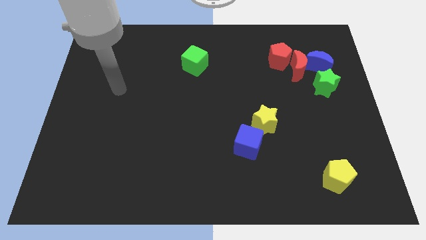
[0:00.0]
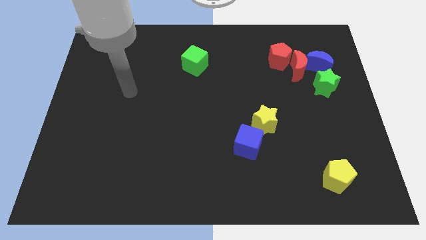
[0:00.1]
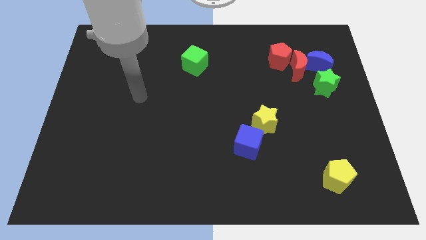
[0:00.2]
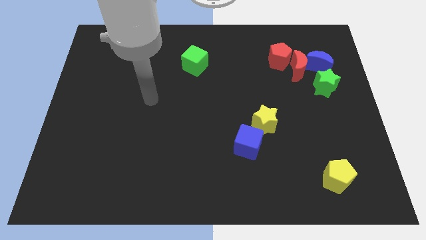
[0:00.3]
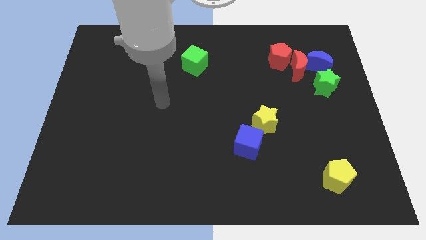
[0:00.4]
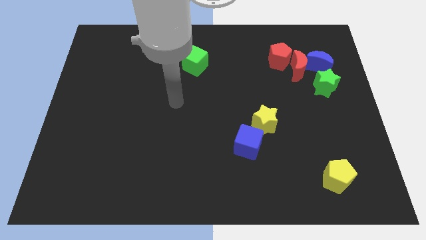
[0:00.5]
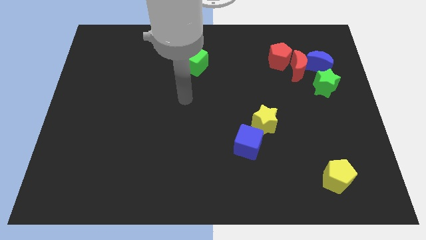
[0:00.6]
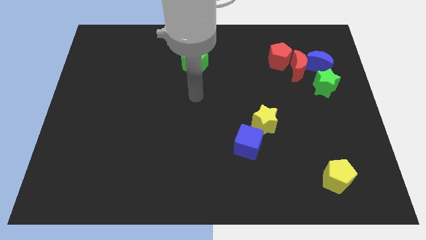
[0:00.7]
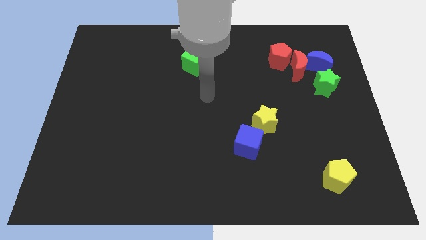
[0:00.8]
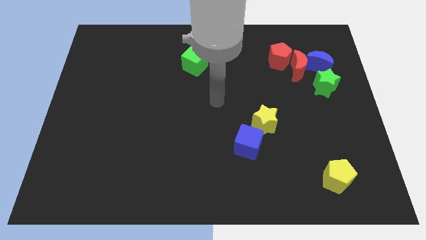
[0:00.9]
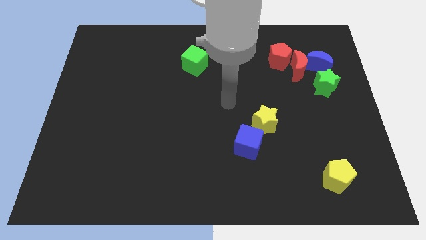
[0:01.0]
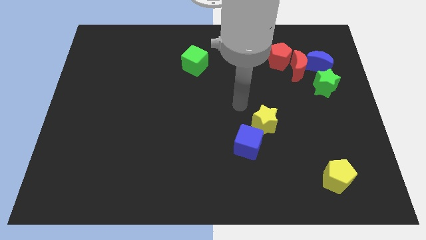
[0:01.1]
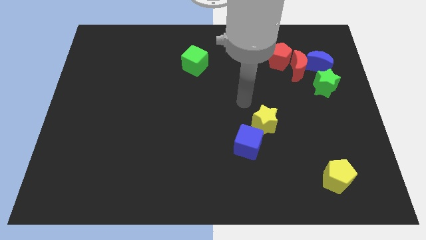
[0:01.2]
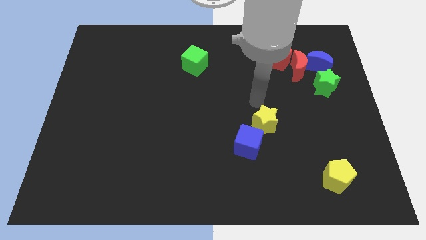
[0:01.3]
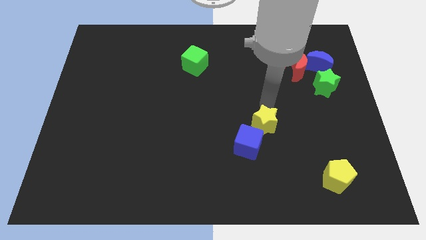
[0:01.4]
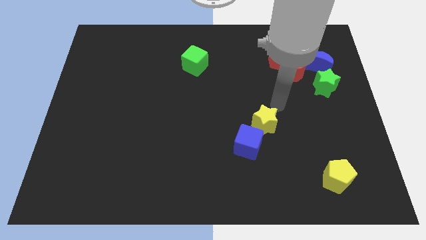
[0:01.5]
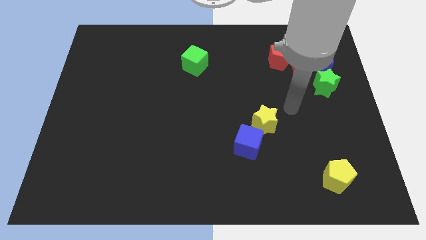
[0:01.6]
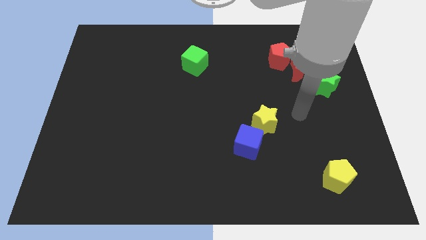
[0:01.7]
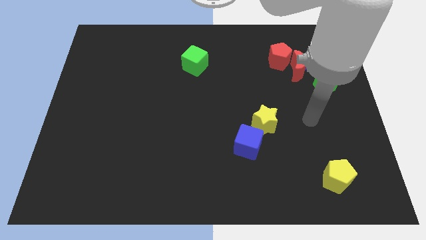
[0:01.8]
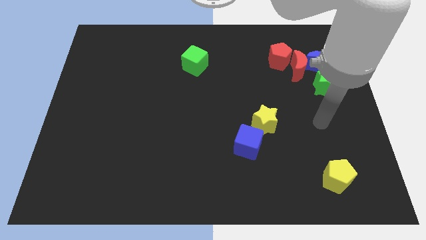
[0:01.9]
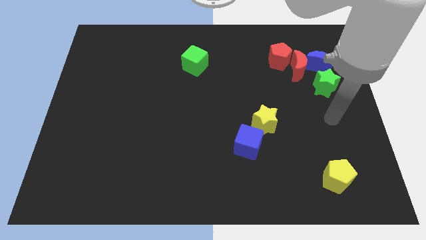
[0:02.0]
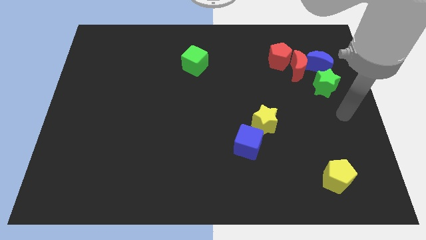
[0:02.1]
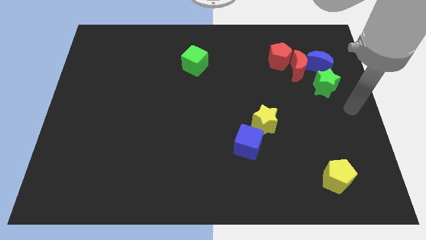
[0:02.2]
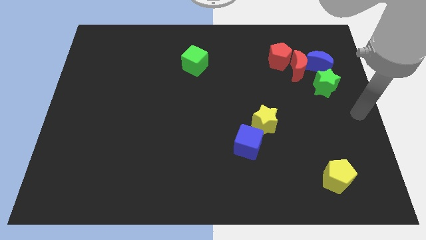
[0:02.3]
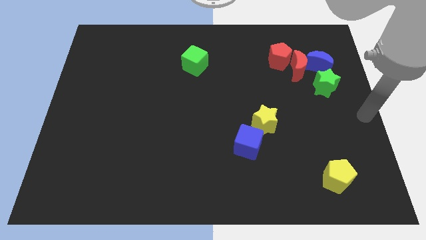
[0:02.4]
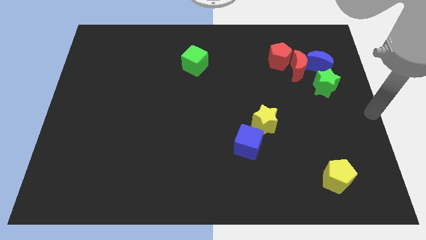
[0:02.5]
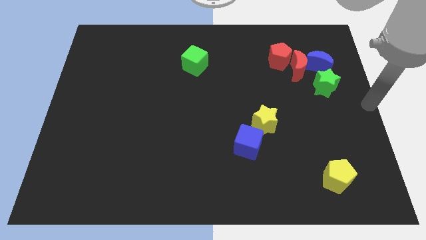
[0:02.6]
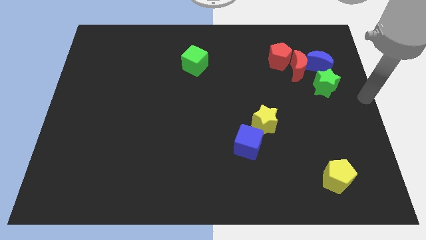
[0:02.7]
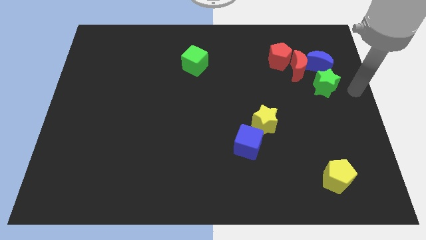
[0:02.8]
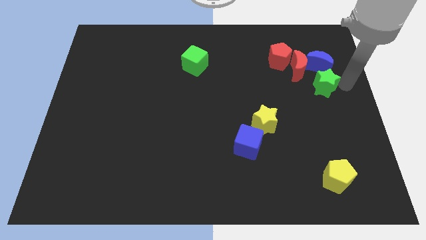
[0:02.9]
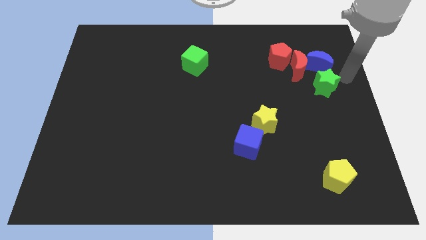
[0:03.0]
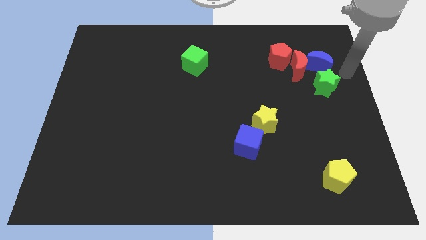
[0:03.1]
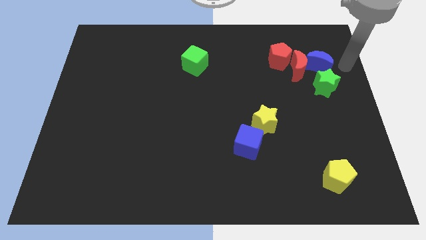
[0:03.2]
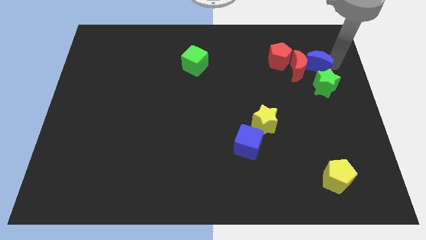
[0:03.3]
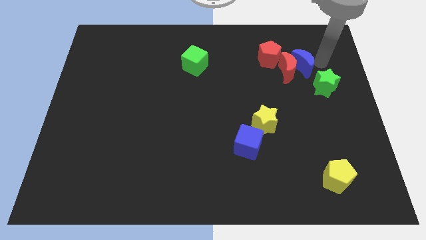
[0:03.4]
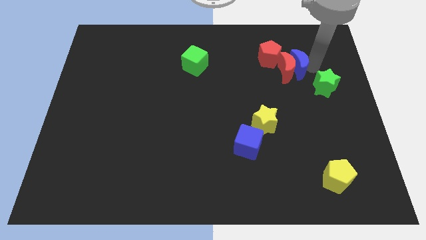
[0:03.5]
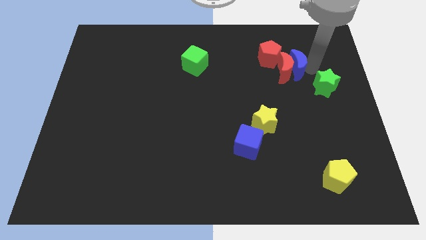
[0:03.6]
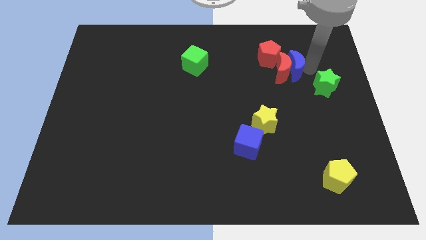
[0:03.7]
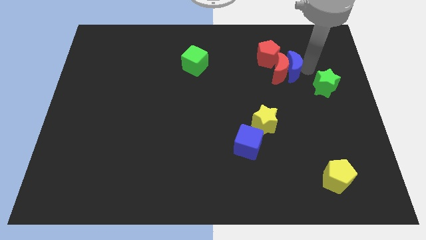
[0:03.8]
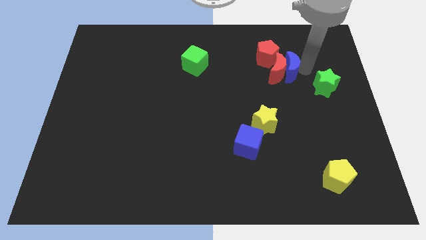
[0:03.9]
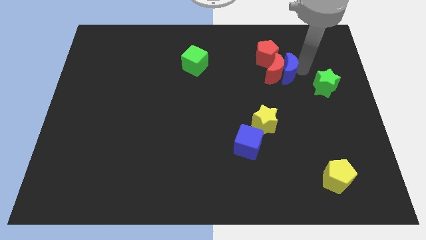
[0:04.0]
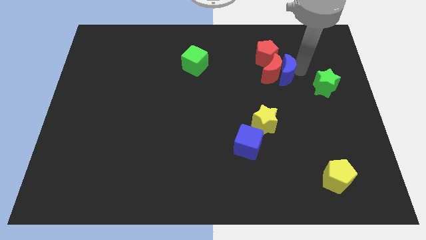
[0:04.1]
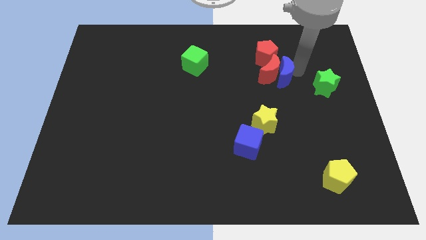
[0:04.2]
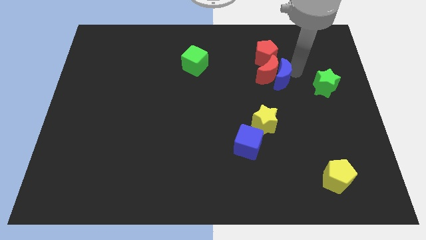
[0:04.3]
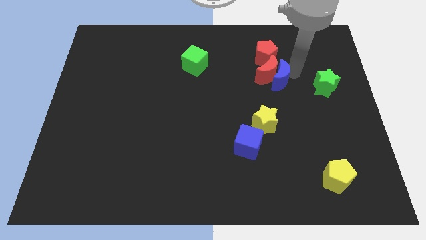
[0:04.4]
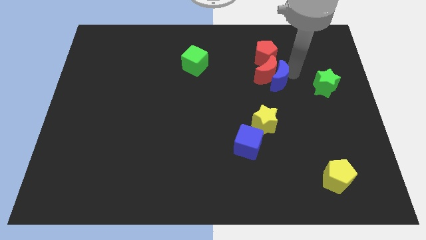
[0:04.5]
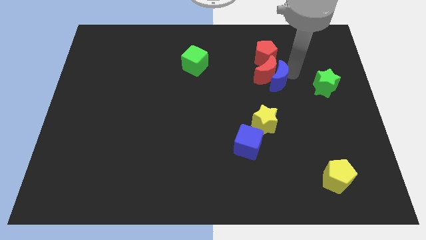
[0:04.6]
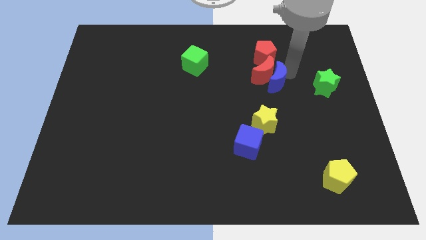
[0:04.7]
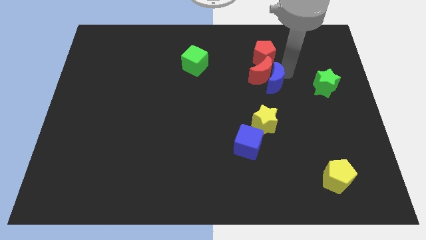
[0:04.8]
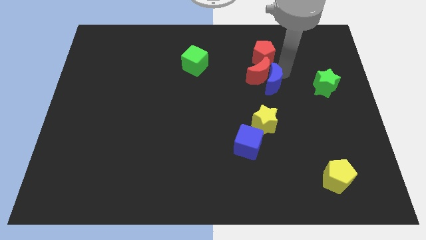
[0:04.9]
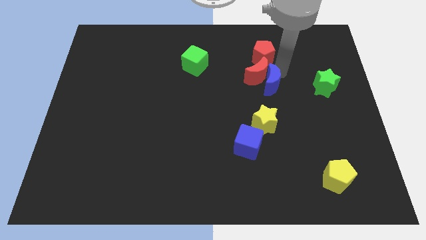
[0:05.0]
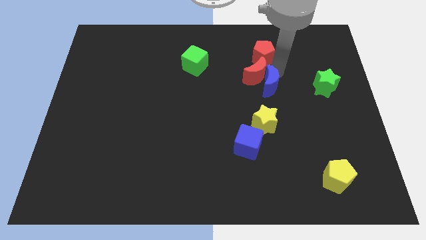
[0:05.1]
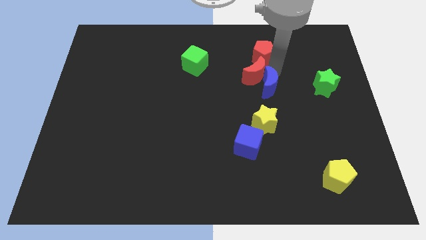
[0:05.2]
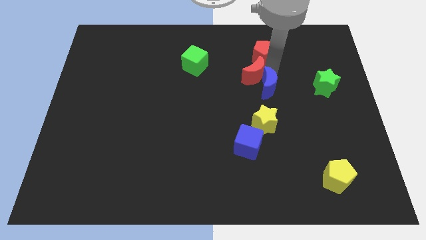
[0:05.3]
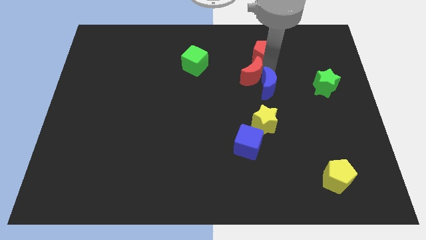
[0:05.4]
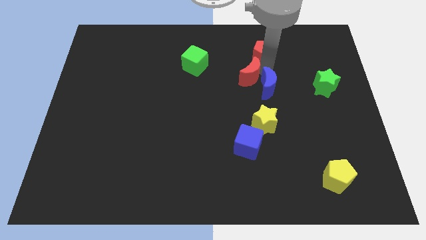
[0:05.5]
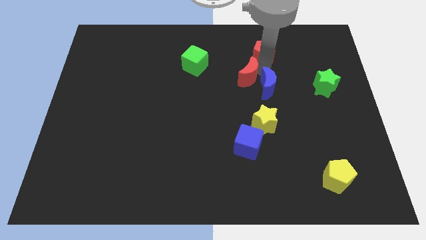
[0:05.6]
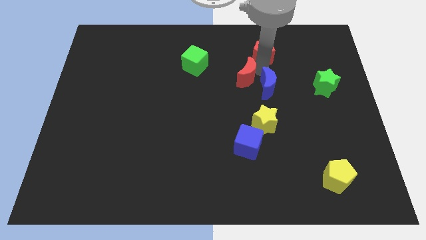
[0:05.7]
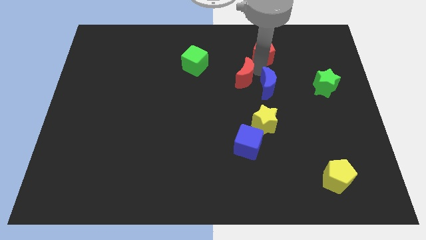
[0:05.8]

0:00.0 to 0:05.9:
move the red moon away from the group

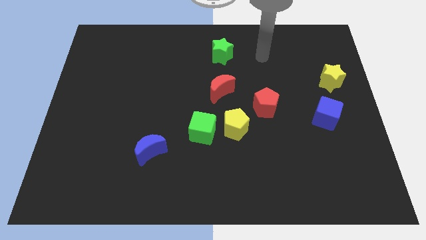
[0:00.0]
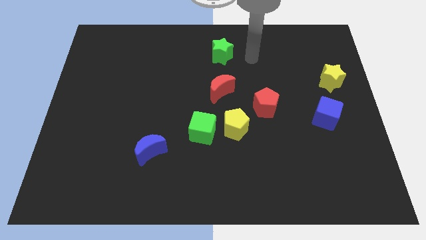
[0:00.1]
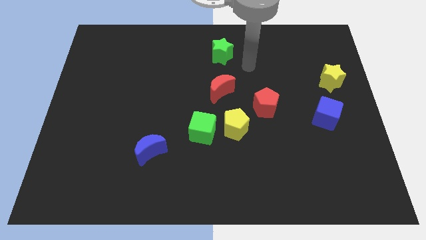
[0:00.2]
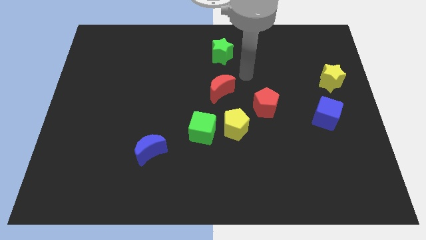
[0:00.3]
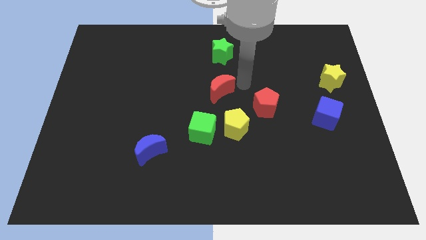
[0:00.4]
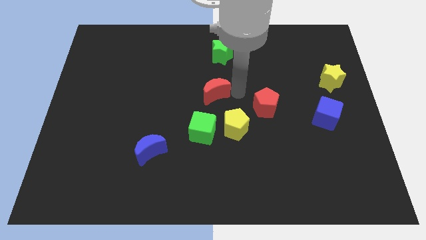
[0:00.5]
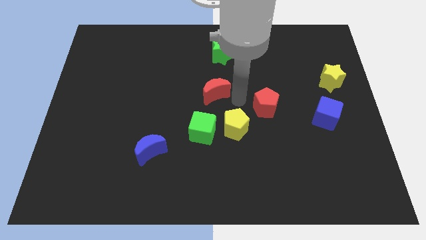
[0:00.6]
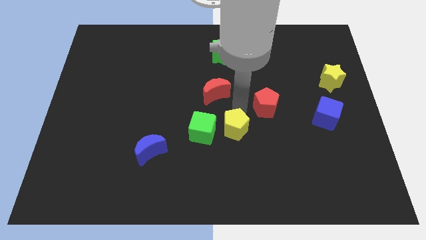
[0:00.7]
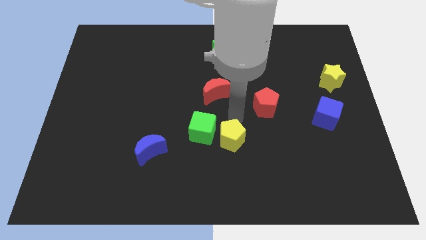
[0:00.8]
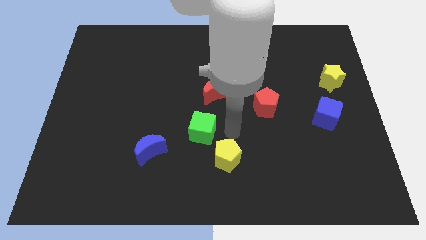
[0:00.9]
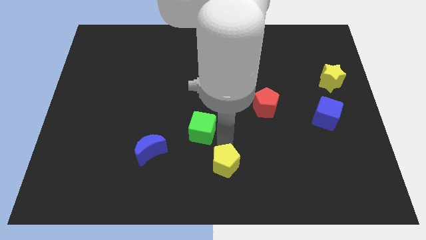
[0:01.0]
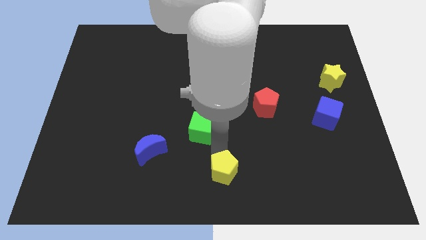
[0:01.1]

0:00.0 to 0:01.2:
pull the green cube apart from the yellow pentagon

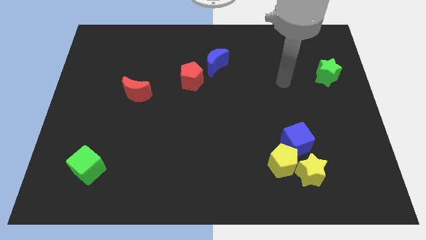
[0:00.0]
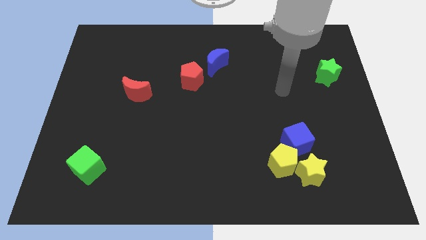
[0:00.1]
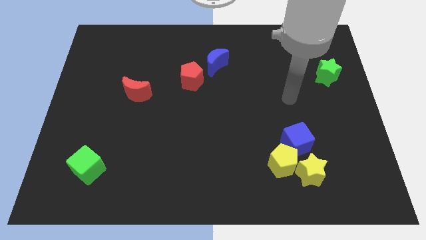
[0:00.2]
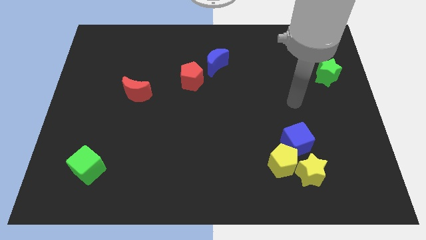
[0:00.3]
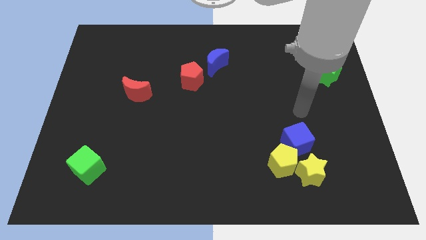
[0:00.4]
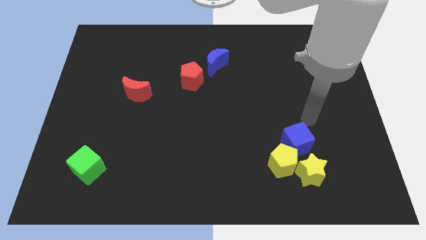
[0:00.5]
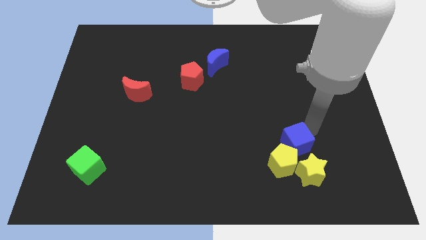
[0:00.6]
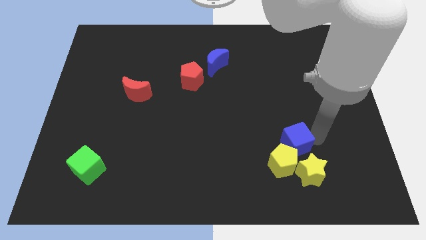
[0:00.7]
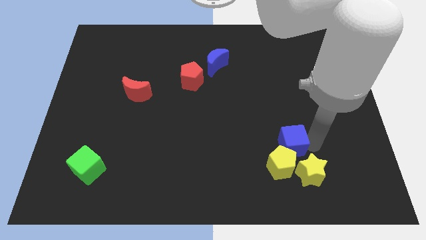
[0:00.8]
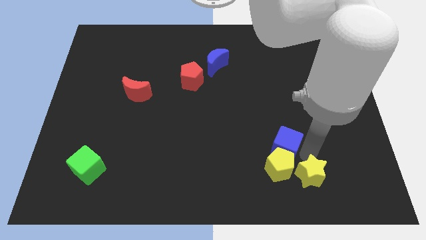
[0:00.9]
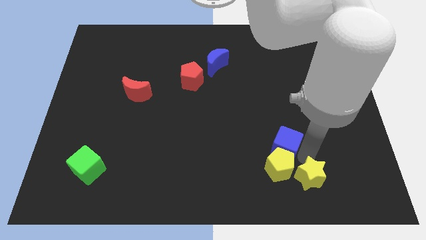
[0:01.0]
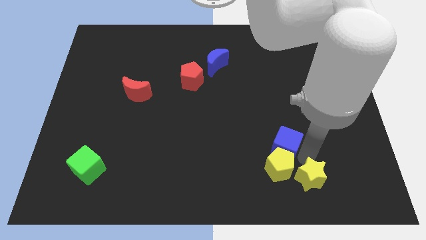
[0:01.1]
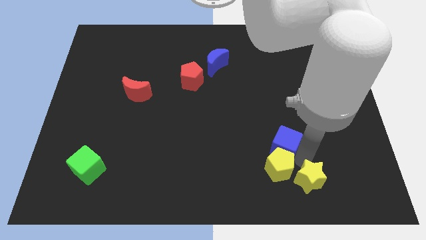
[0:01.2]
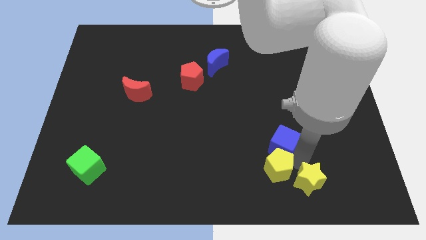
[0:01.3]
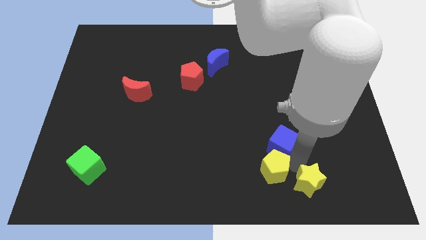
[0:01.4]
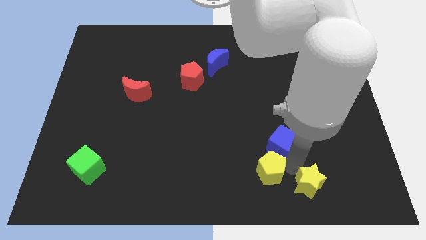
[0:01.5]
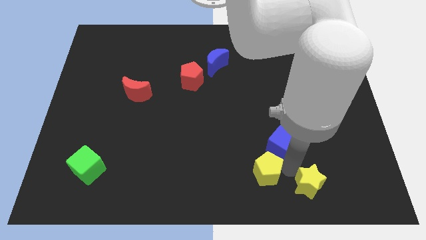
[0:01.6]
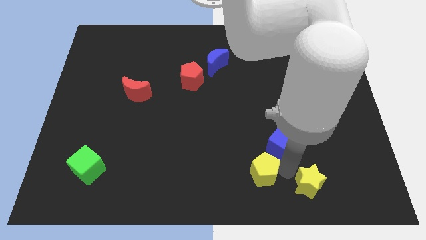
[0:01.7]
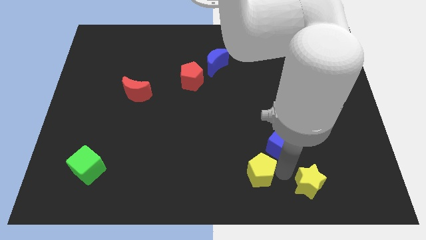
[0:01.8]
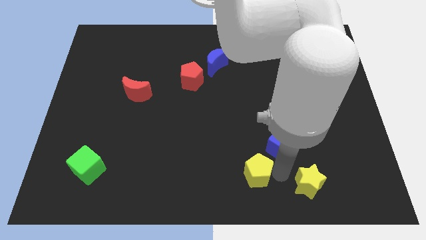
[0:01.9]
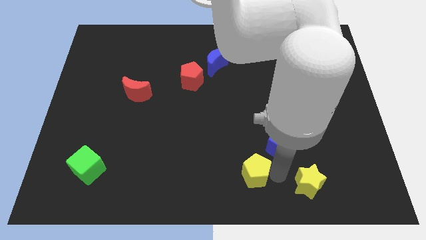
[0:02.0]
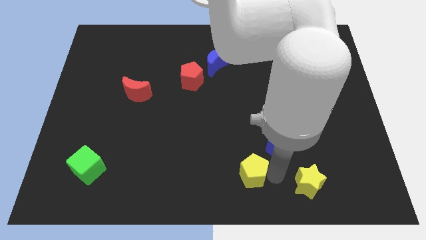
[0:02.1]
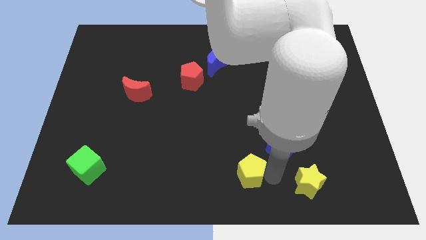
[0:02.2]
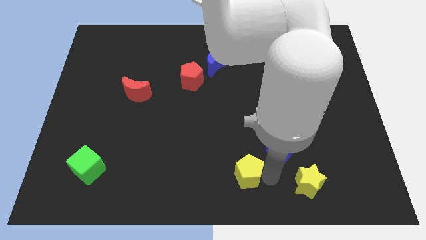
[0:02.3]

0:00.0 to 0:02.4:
separate the yellow pentagon from the yellow star and blue cube
